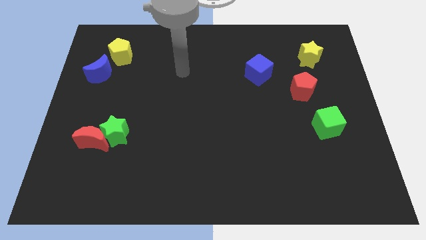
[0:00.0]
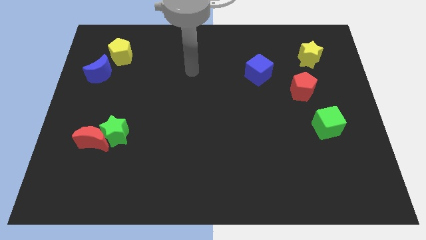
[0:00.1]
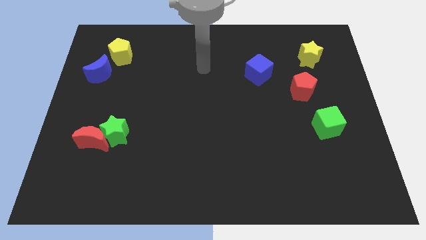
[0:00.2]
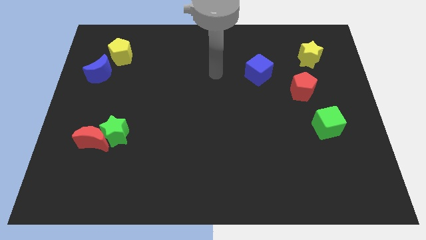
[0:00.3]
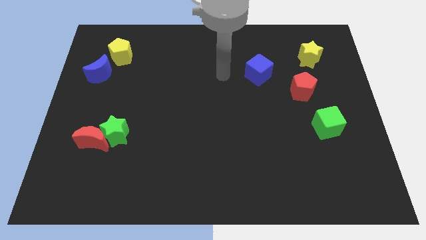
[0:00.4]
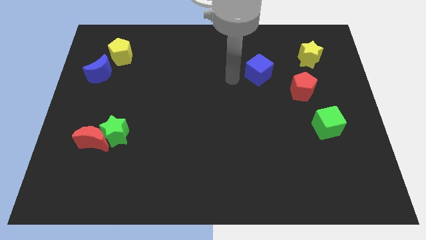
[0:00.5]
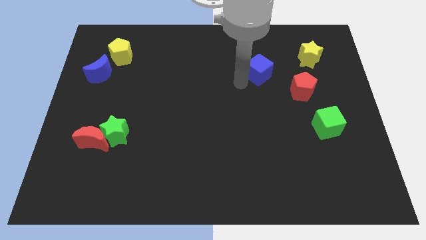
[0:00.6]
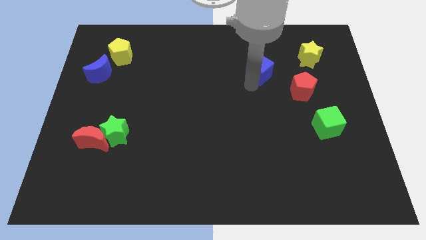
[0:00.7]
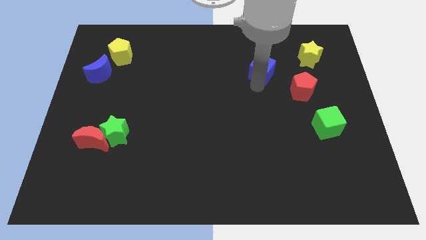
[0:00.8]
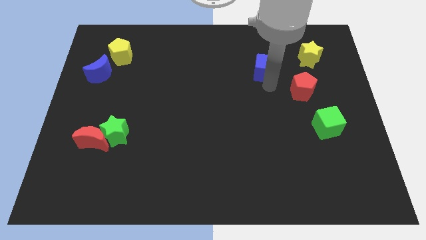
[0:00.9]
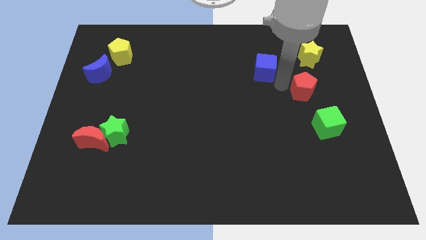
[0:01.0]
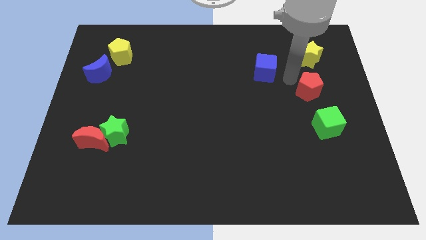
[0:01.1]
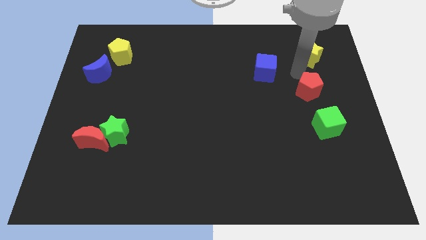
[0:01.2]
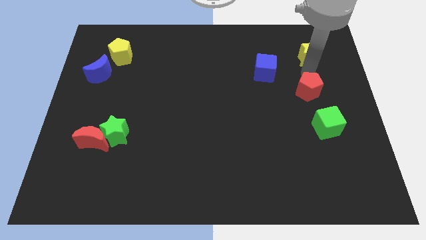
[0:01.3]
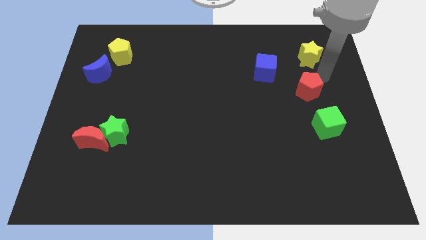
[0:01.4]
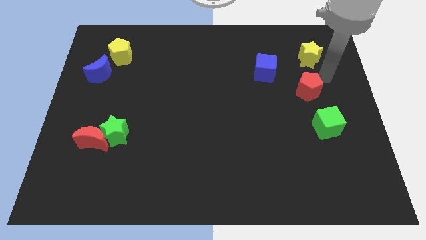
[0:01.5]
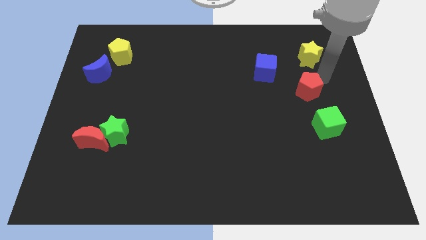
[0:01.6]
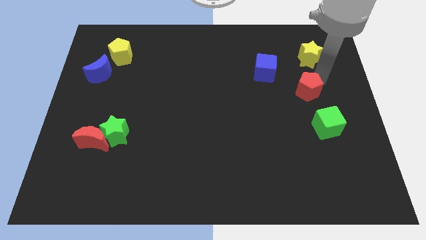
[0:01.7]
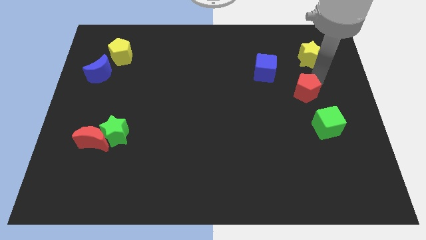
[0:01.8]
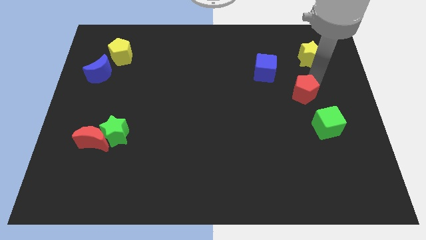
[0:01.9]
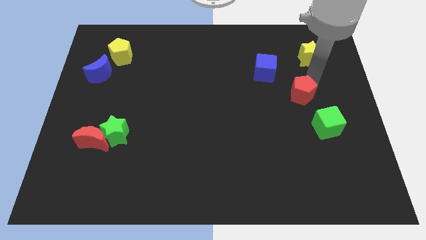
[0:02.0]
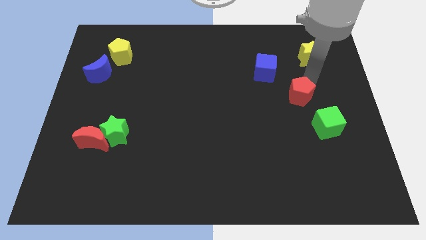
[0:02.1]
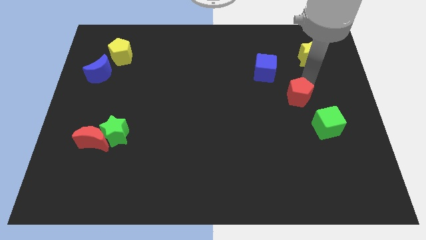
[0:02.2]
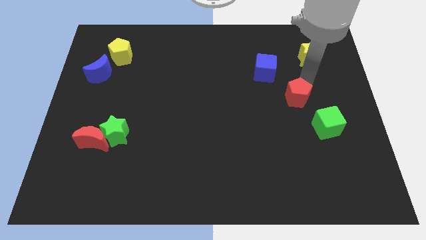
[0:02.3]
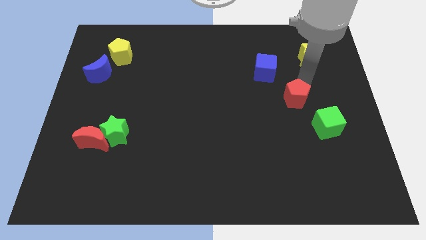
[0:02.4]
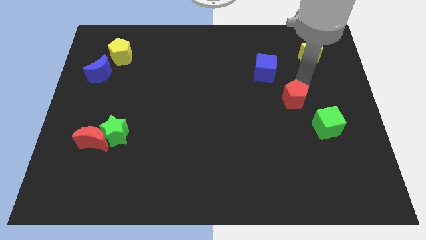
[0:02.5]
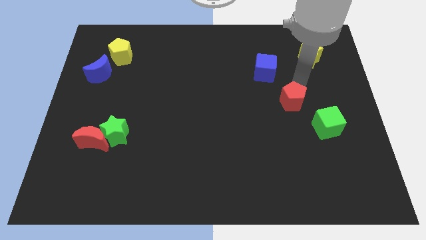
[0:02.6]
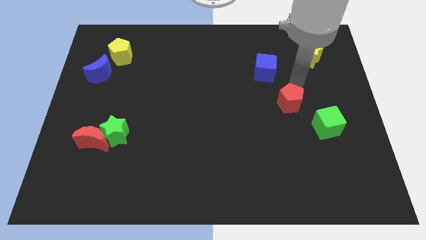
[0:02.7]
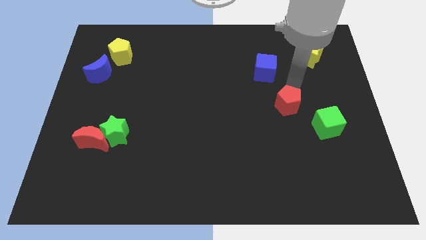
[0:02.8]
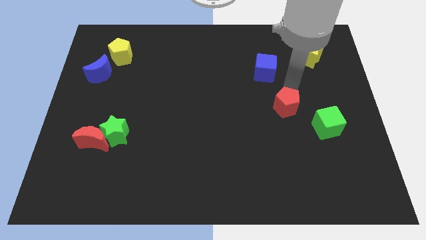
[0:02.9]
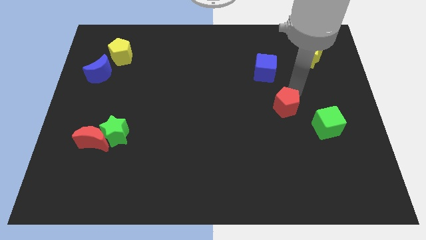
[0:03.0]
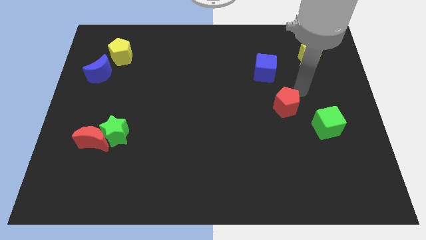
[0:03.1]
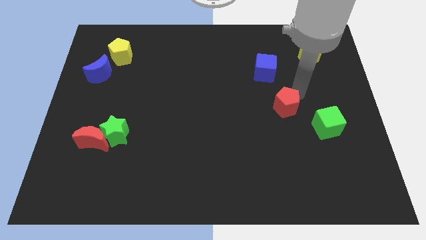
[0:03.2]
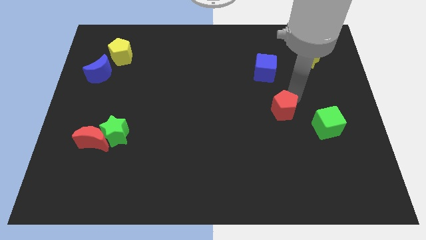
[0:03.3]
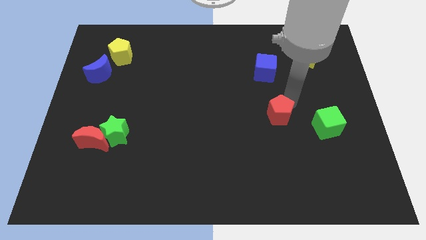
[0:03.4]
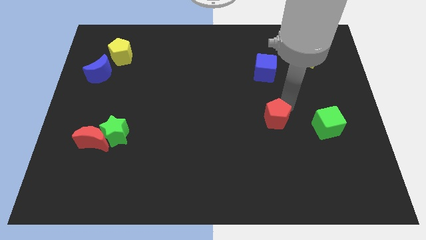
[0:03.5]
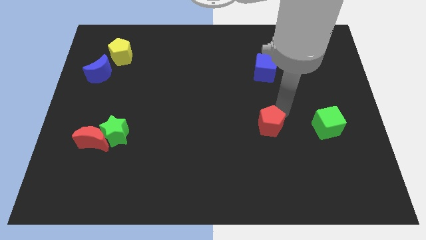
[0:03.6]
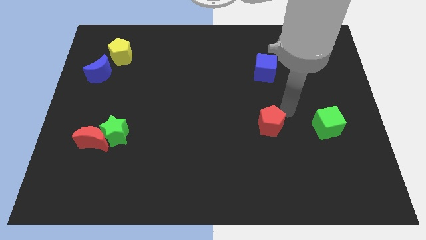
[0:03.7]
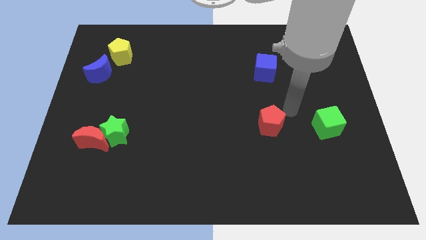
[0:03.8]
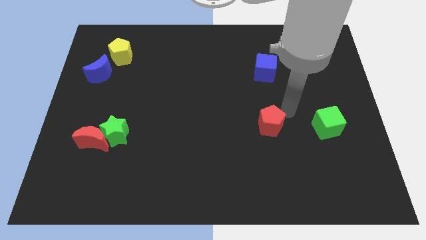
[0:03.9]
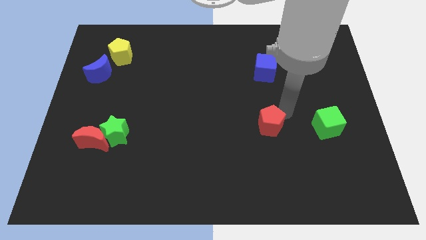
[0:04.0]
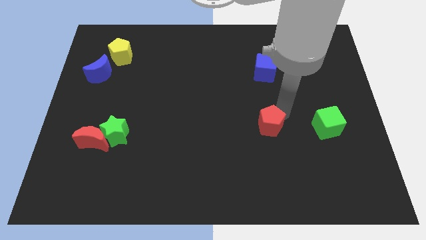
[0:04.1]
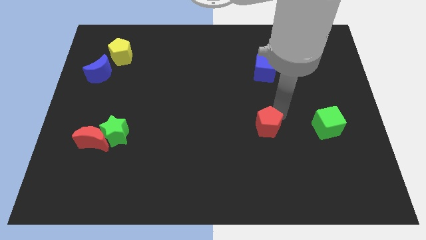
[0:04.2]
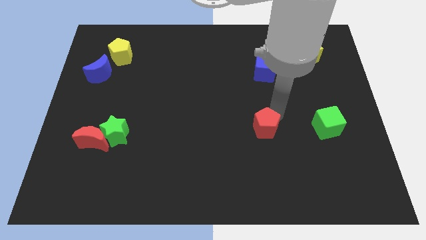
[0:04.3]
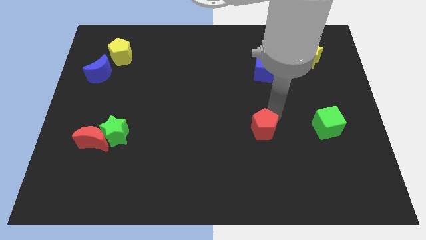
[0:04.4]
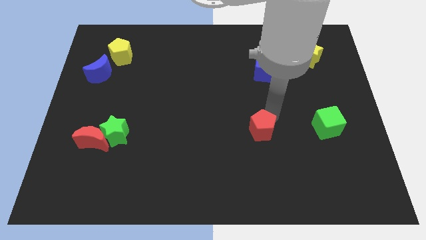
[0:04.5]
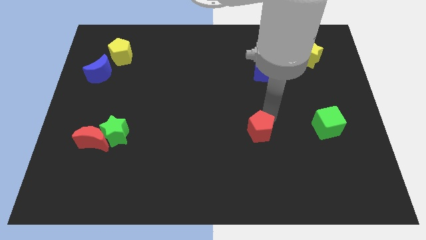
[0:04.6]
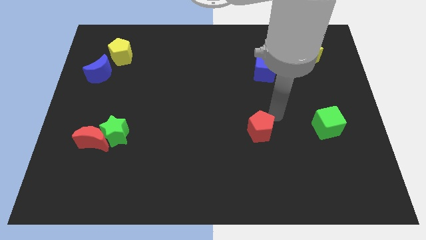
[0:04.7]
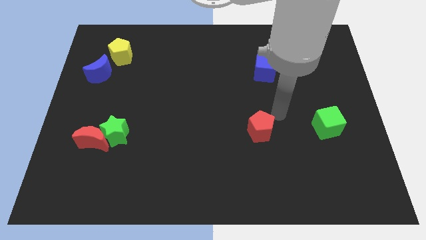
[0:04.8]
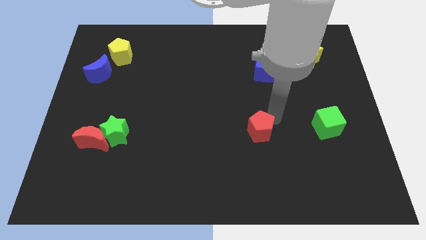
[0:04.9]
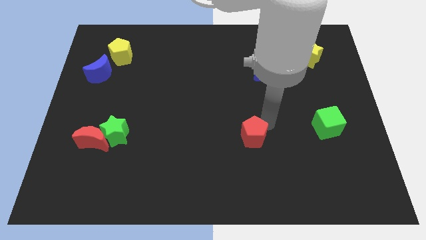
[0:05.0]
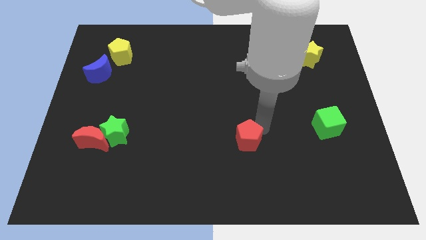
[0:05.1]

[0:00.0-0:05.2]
move the red pentagon downwards and left diagonally

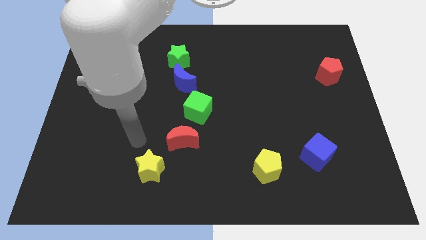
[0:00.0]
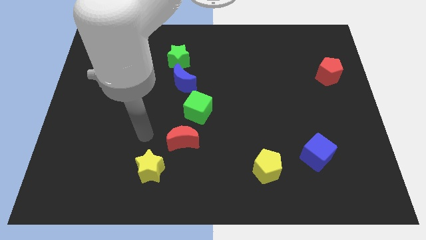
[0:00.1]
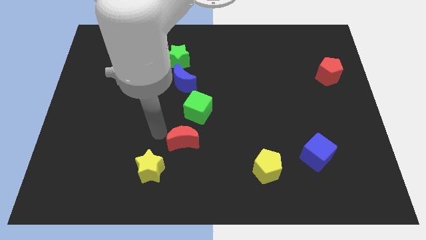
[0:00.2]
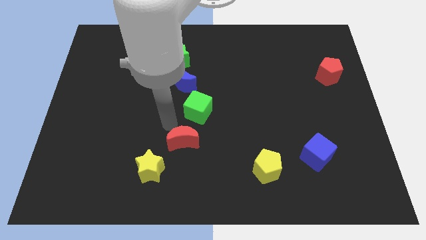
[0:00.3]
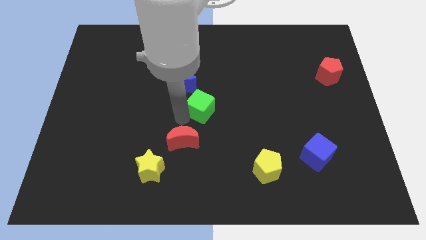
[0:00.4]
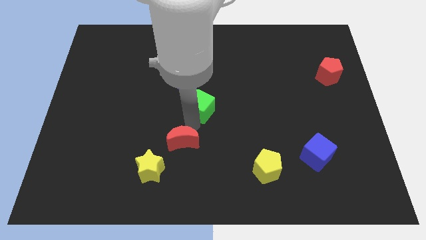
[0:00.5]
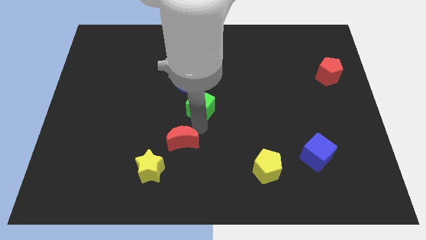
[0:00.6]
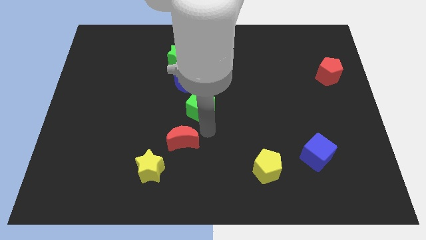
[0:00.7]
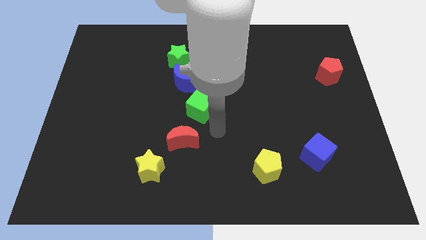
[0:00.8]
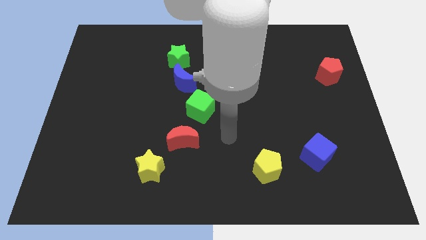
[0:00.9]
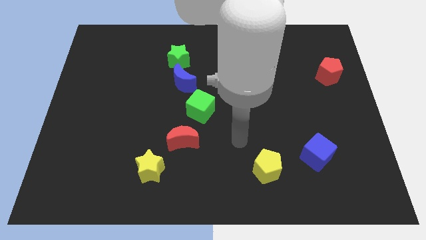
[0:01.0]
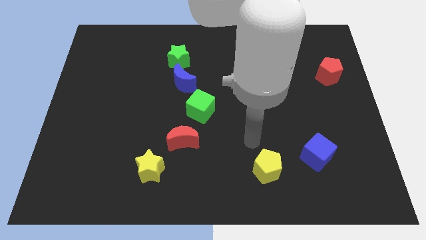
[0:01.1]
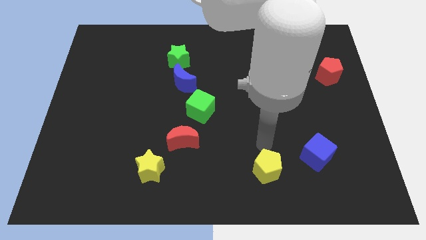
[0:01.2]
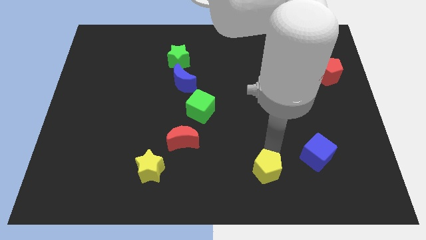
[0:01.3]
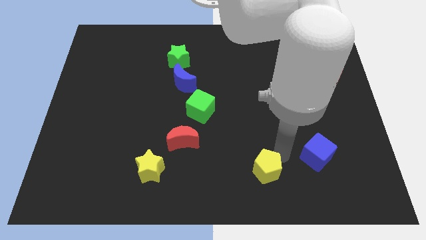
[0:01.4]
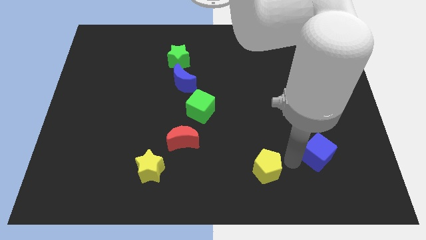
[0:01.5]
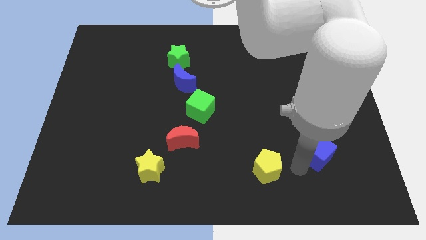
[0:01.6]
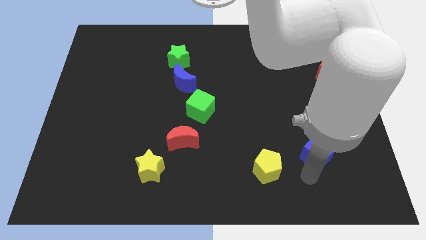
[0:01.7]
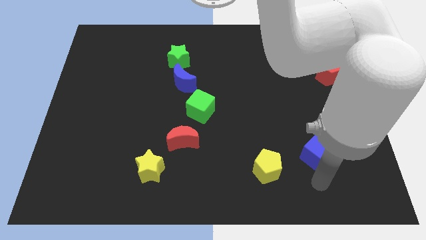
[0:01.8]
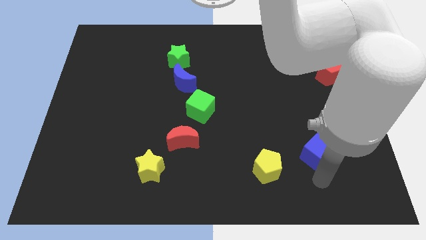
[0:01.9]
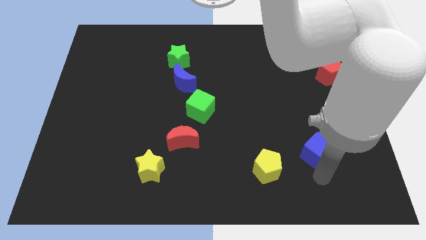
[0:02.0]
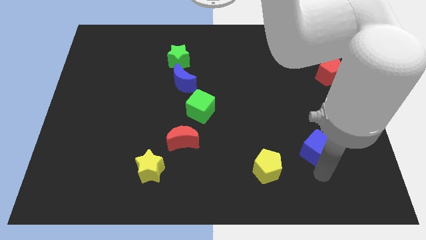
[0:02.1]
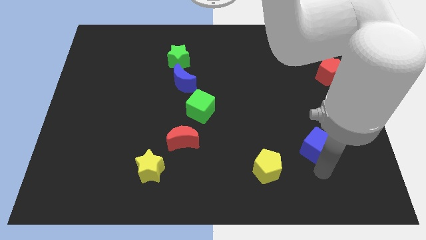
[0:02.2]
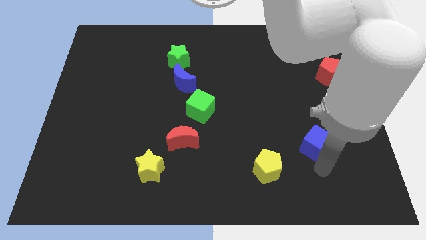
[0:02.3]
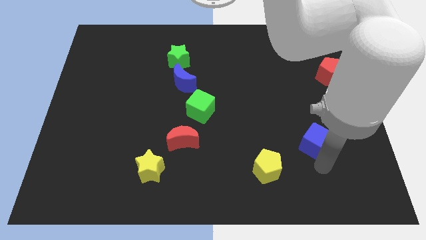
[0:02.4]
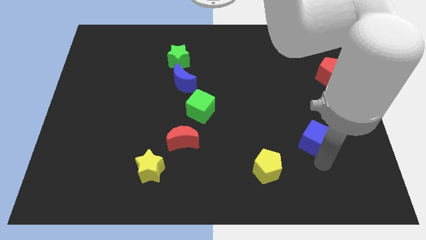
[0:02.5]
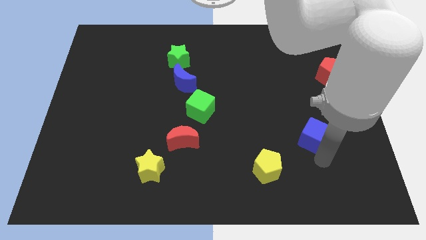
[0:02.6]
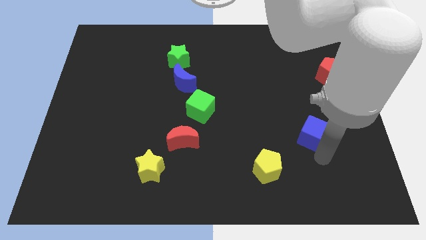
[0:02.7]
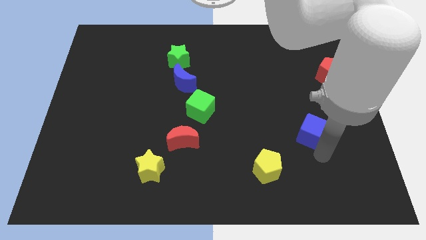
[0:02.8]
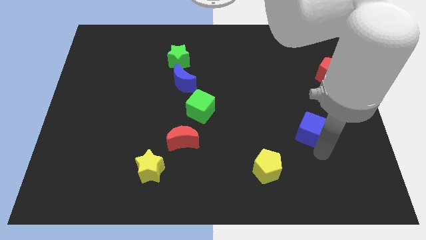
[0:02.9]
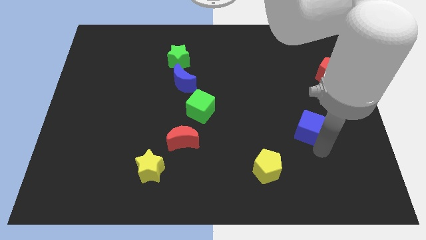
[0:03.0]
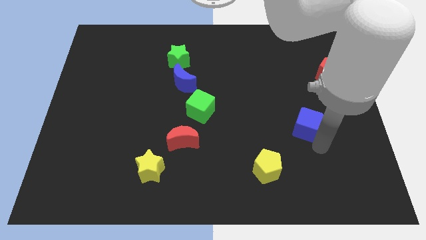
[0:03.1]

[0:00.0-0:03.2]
slide the blue cube up a little bit

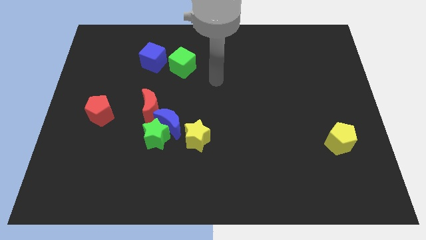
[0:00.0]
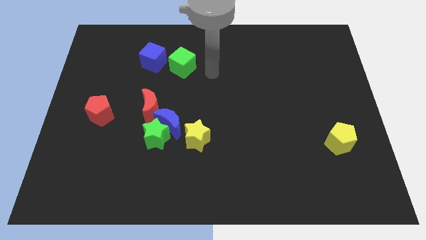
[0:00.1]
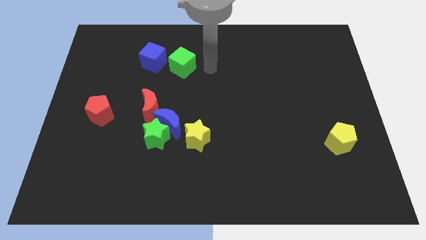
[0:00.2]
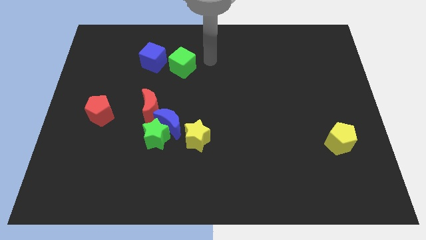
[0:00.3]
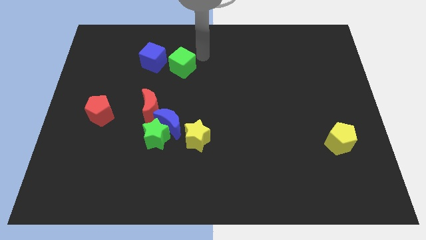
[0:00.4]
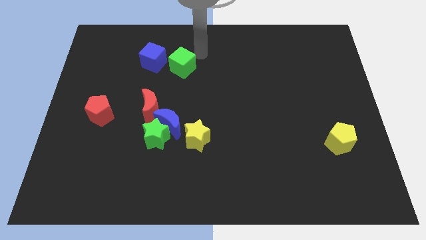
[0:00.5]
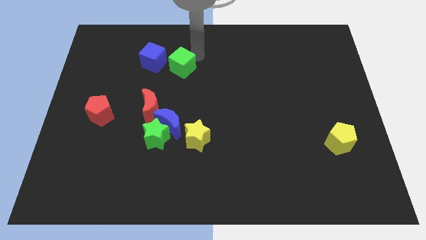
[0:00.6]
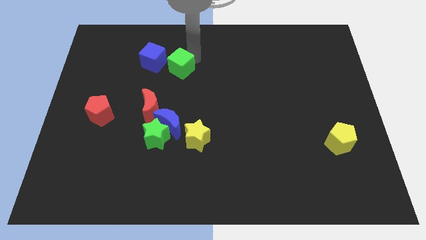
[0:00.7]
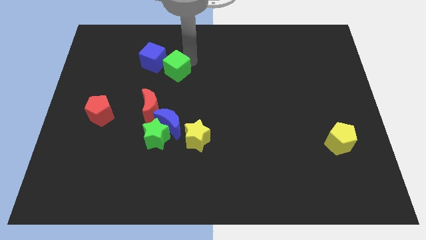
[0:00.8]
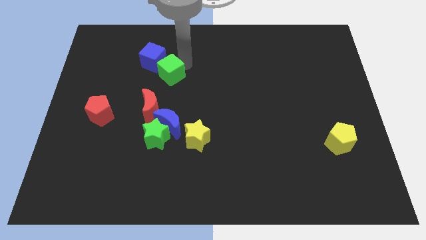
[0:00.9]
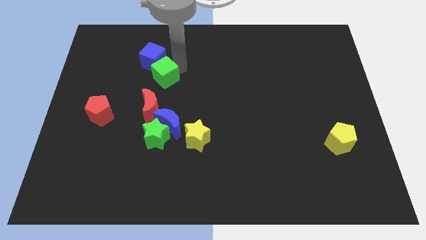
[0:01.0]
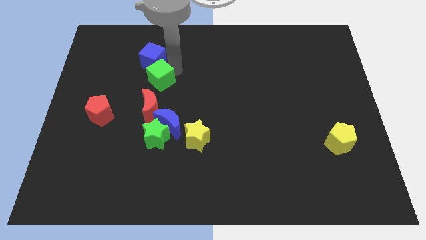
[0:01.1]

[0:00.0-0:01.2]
slide the green cube somewhat diagonally downwards and left
